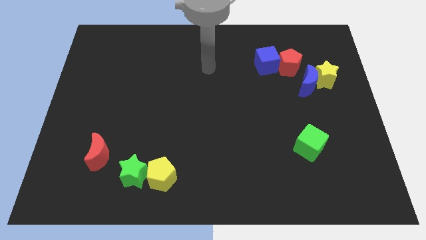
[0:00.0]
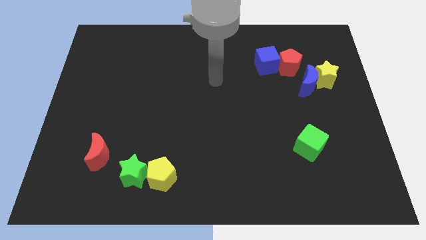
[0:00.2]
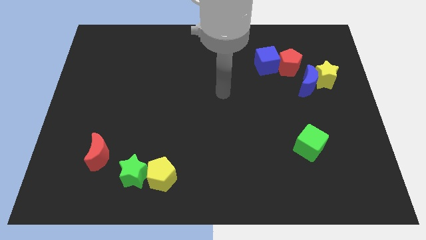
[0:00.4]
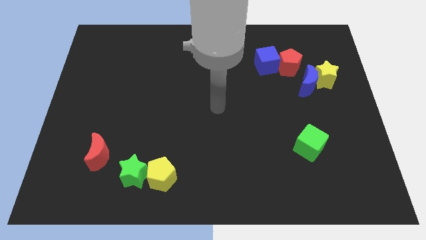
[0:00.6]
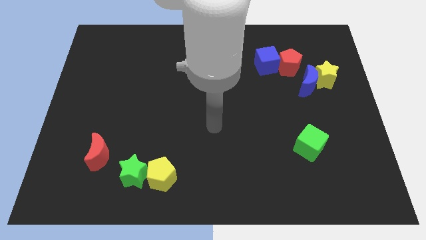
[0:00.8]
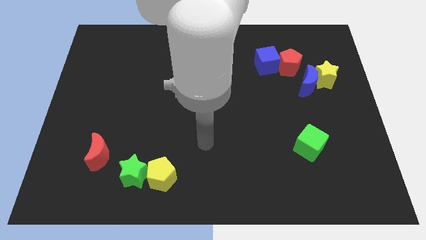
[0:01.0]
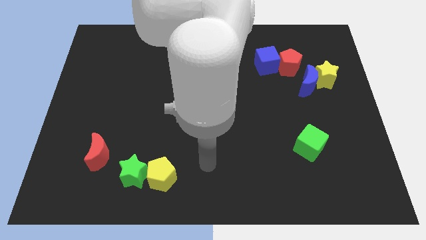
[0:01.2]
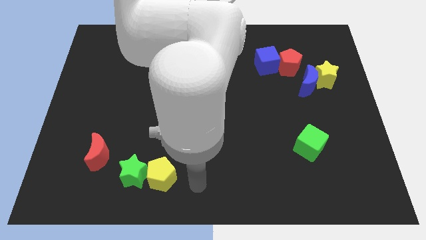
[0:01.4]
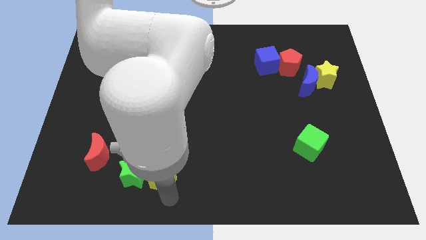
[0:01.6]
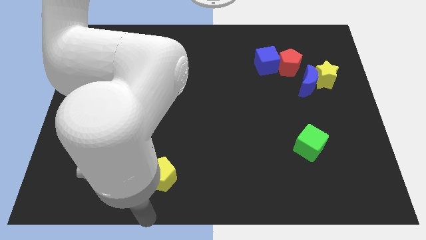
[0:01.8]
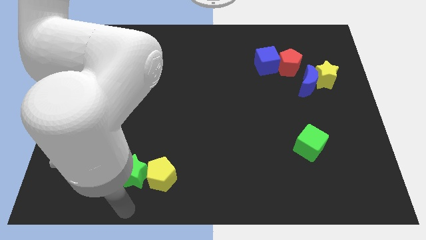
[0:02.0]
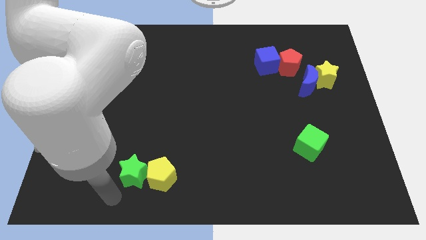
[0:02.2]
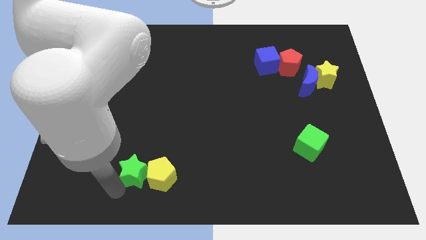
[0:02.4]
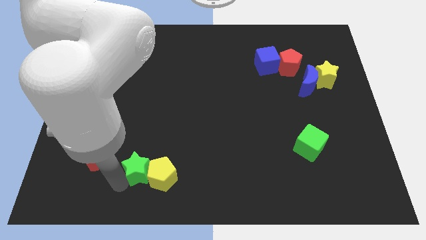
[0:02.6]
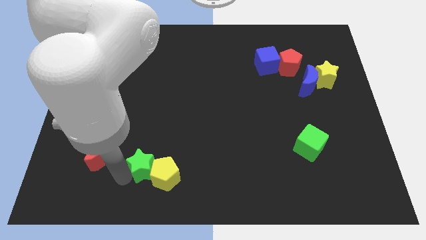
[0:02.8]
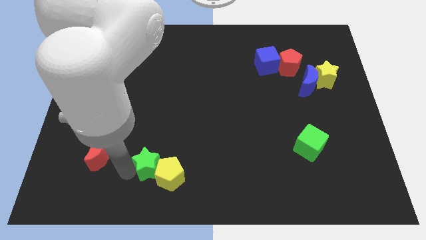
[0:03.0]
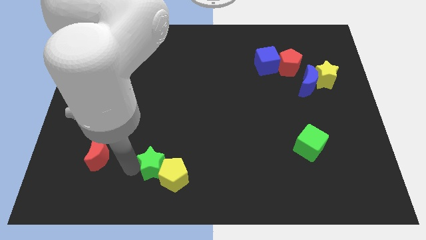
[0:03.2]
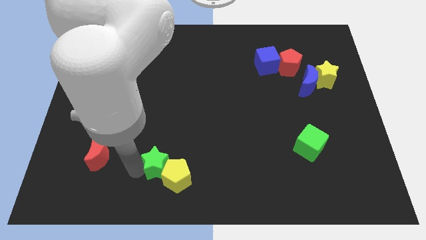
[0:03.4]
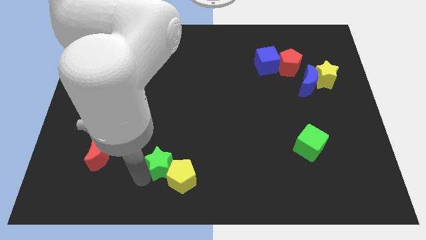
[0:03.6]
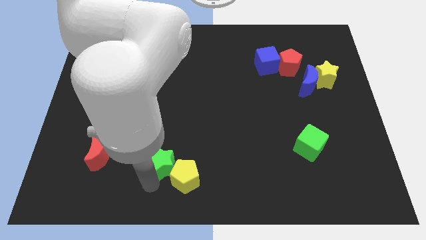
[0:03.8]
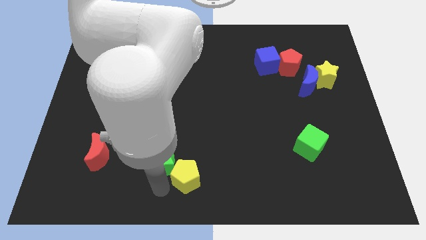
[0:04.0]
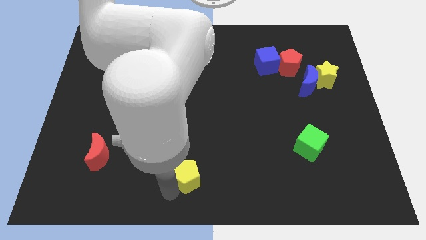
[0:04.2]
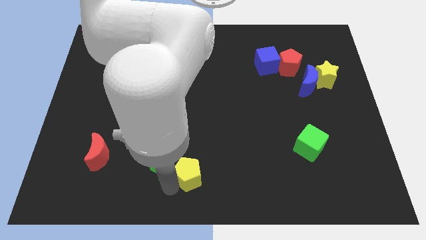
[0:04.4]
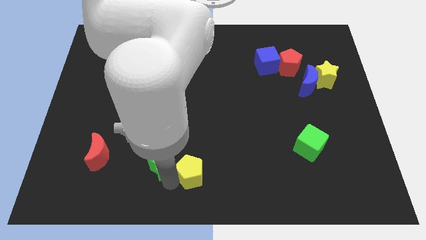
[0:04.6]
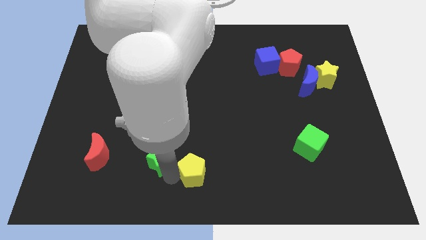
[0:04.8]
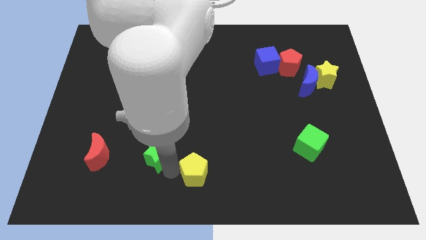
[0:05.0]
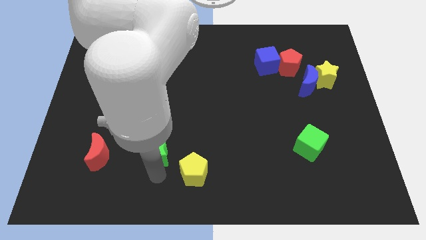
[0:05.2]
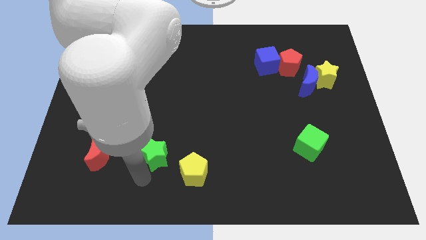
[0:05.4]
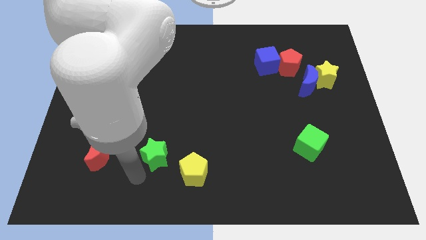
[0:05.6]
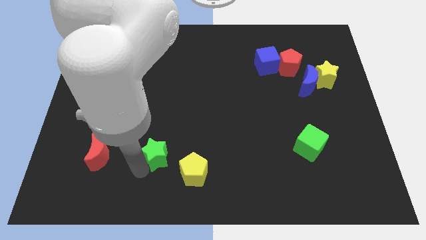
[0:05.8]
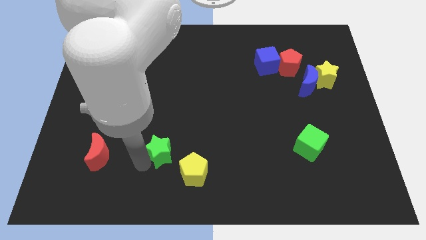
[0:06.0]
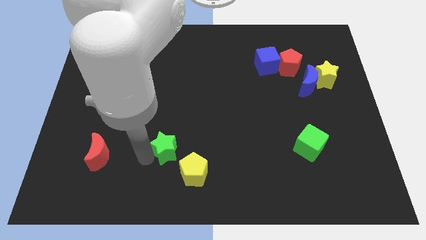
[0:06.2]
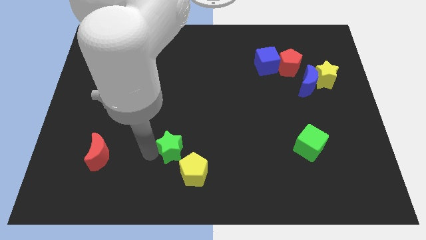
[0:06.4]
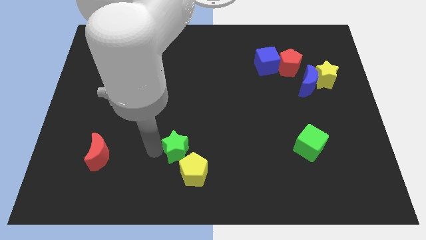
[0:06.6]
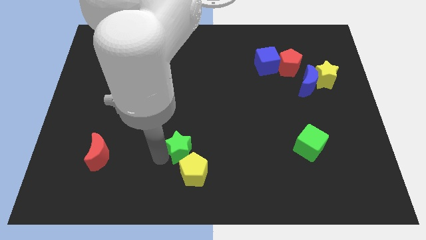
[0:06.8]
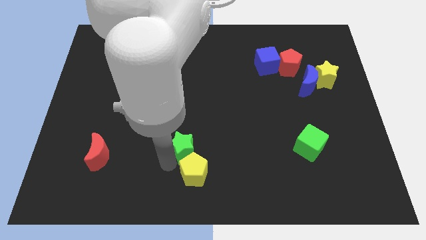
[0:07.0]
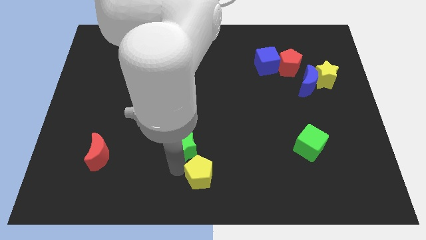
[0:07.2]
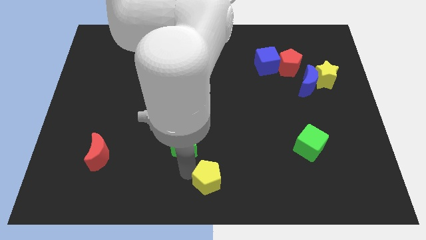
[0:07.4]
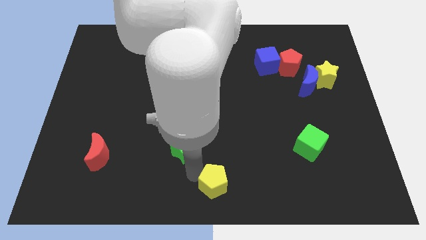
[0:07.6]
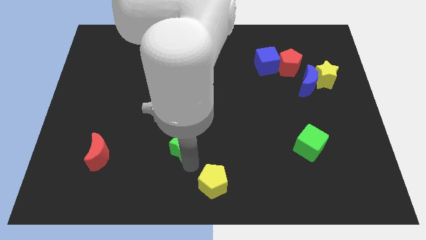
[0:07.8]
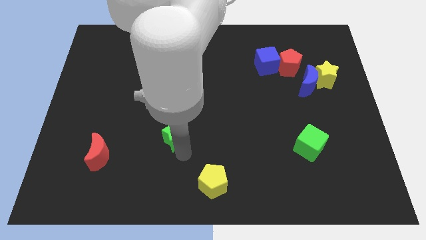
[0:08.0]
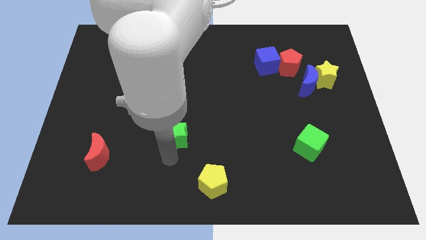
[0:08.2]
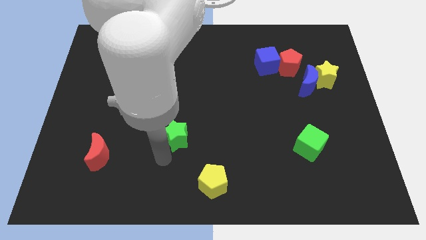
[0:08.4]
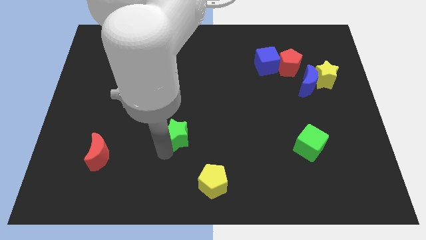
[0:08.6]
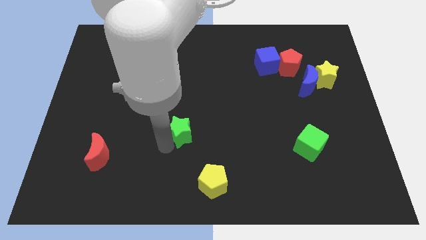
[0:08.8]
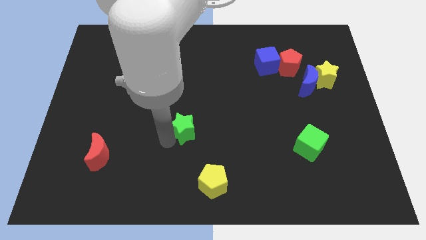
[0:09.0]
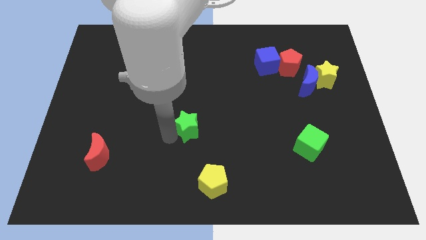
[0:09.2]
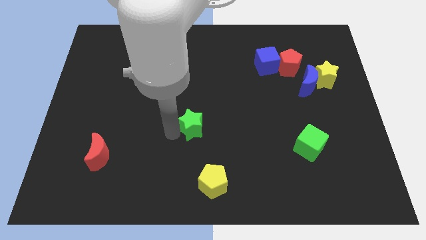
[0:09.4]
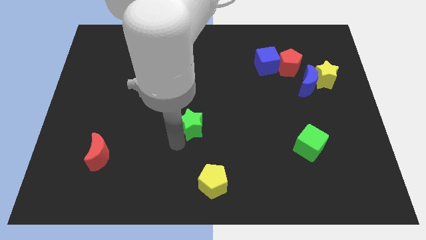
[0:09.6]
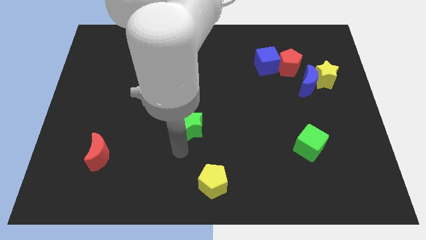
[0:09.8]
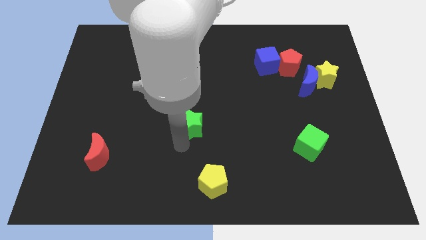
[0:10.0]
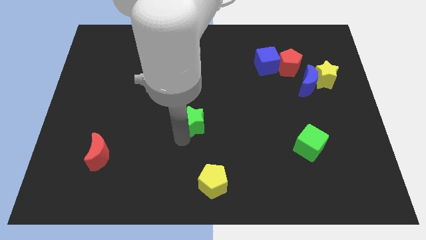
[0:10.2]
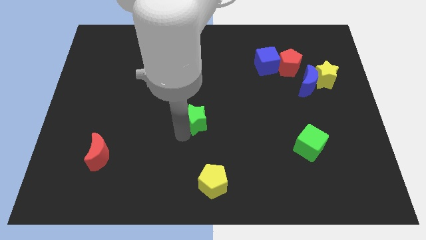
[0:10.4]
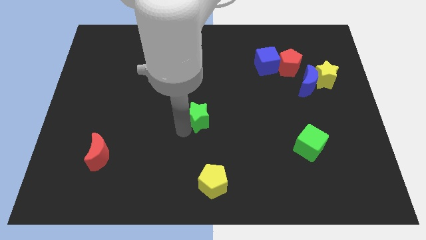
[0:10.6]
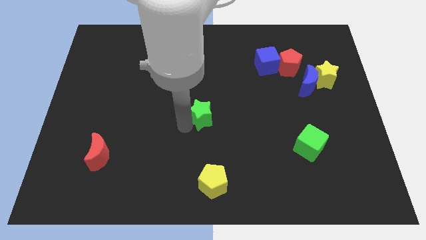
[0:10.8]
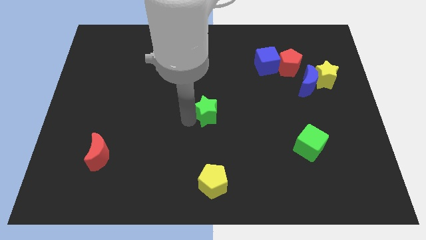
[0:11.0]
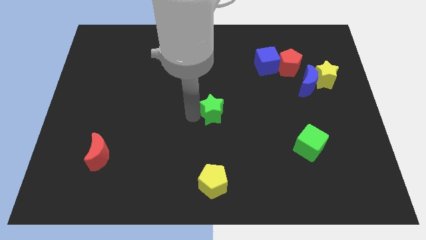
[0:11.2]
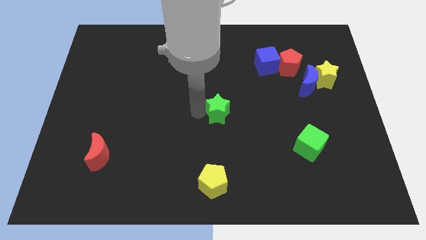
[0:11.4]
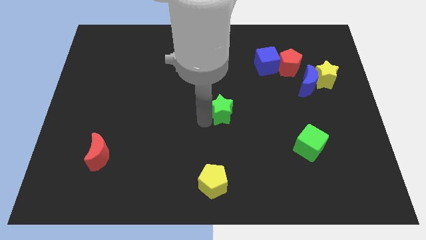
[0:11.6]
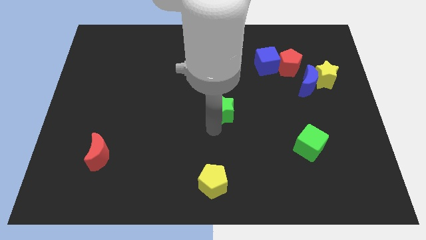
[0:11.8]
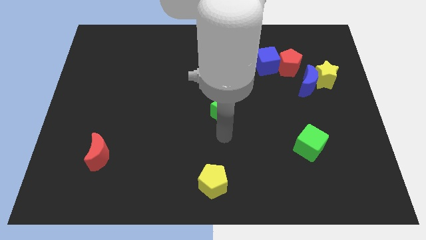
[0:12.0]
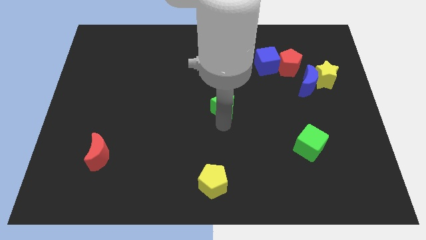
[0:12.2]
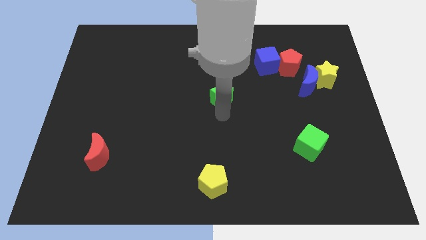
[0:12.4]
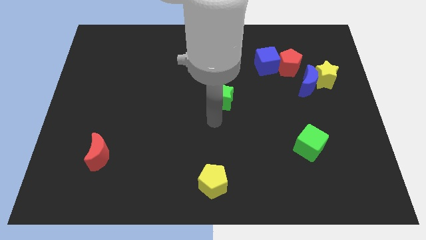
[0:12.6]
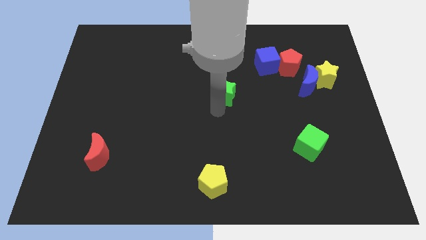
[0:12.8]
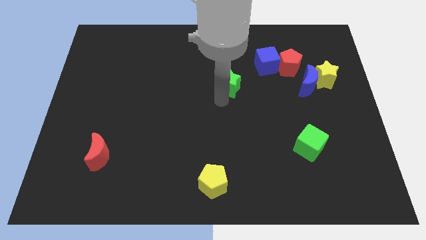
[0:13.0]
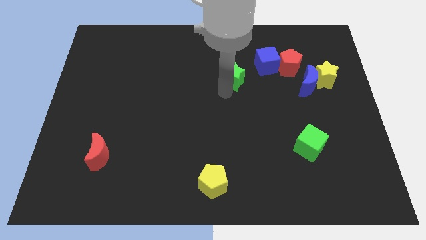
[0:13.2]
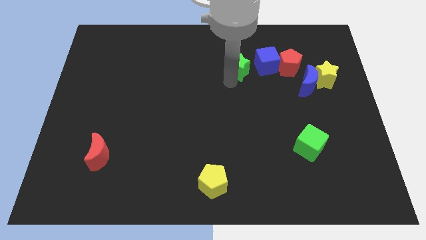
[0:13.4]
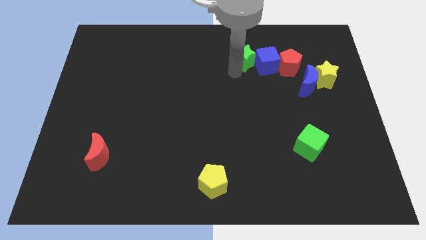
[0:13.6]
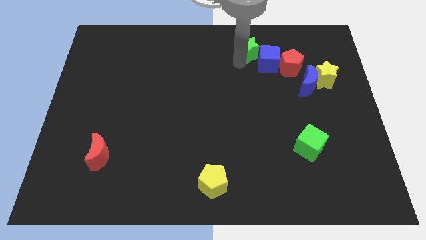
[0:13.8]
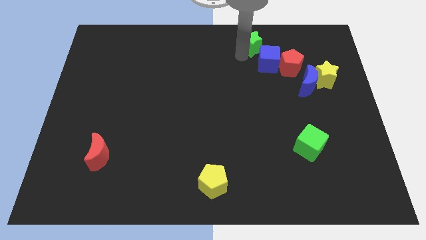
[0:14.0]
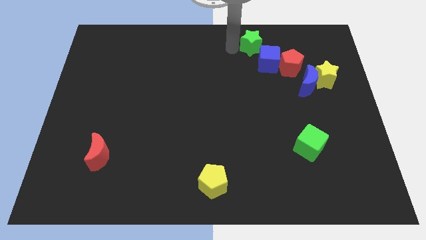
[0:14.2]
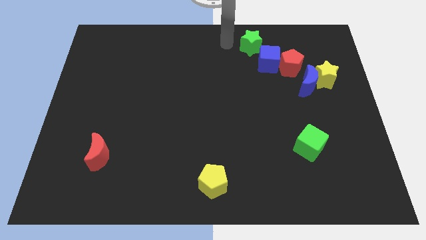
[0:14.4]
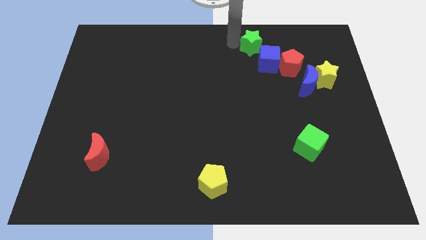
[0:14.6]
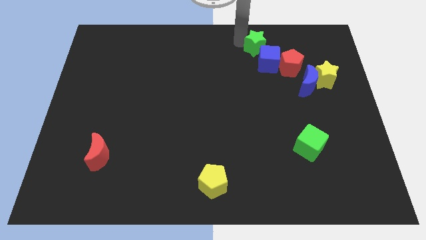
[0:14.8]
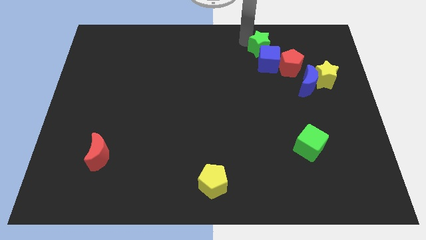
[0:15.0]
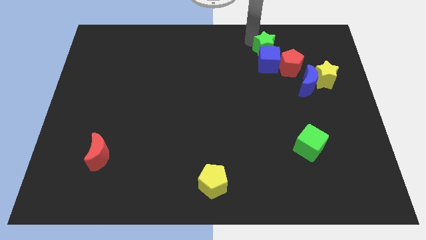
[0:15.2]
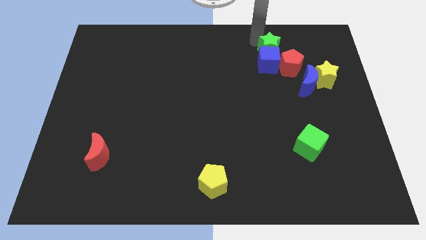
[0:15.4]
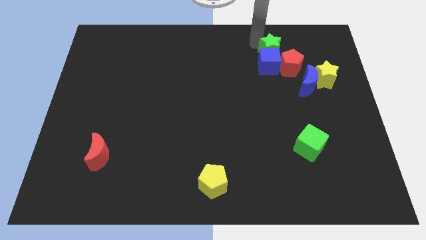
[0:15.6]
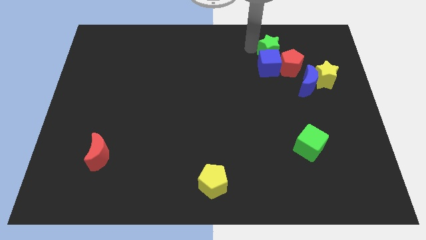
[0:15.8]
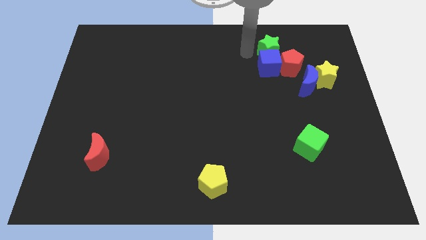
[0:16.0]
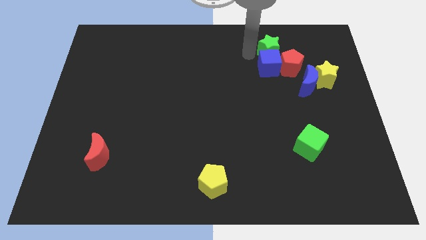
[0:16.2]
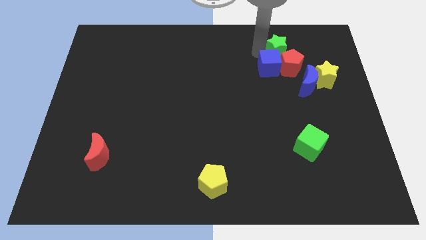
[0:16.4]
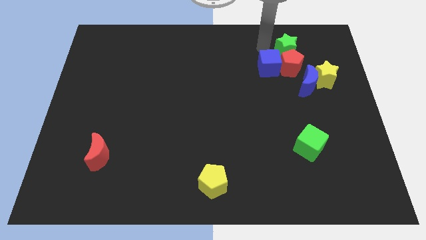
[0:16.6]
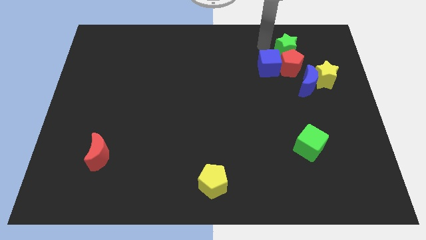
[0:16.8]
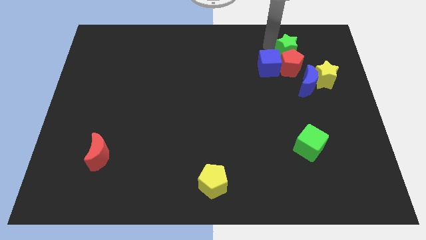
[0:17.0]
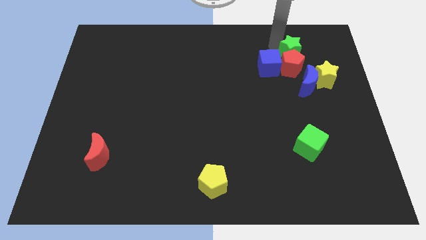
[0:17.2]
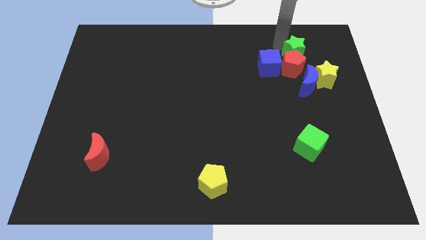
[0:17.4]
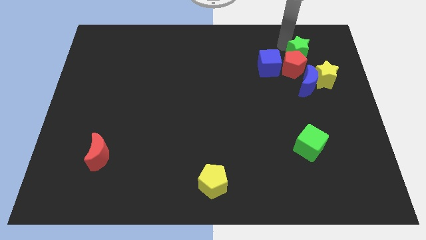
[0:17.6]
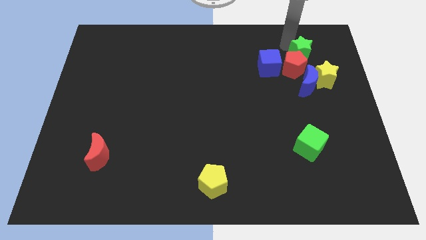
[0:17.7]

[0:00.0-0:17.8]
push the green star to the right side of the blue cube
